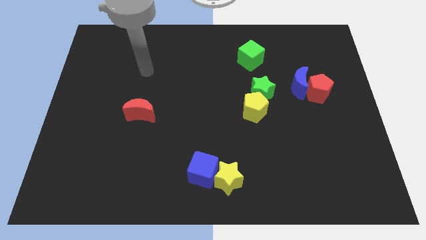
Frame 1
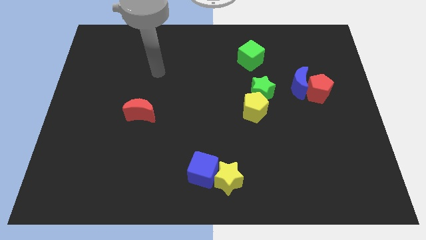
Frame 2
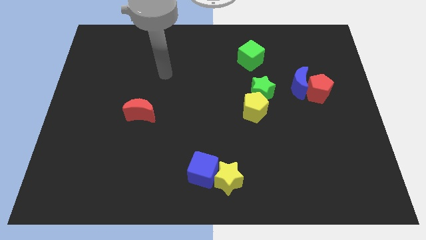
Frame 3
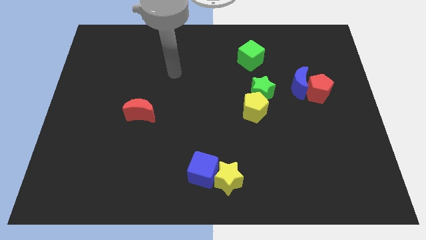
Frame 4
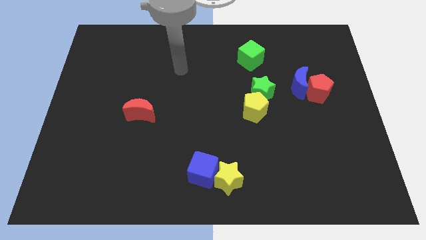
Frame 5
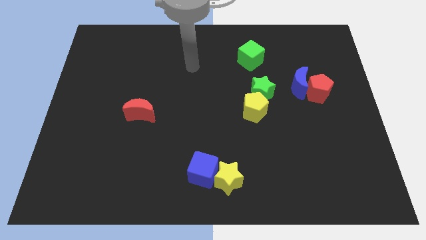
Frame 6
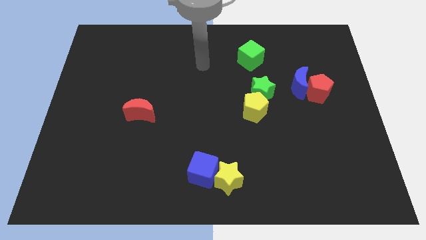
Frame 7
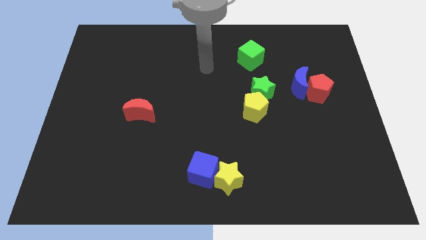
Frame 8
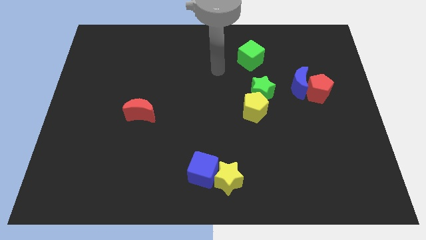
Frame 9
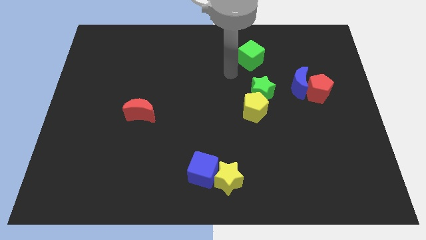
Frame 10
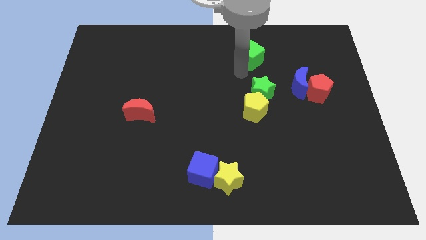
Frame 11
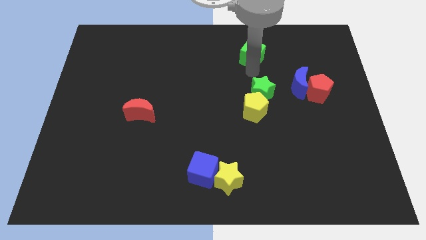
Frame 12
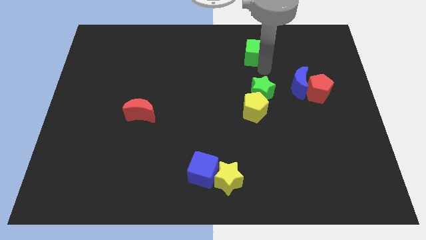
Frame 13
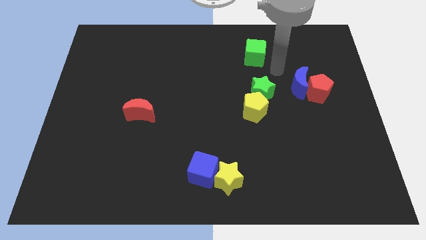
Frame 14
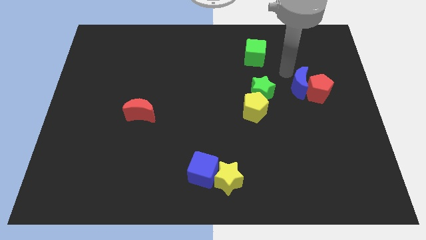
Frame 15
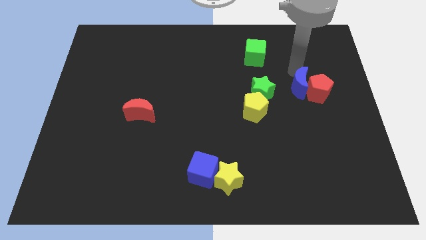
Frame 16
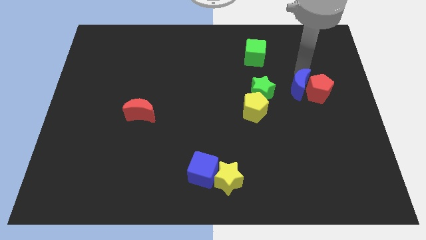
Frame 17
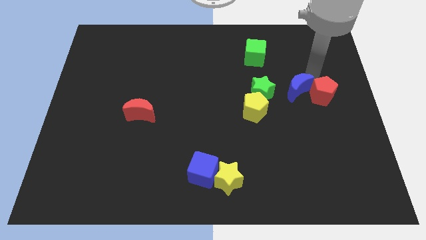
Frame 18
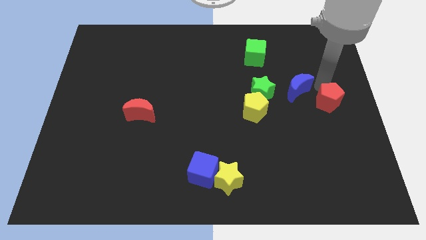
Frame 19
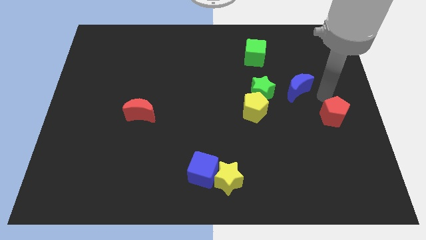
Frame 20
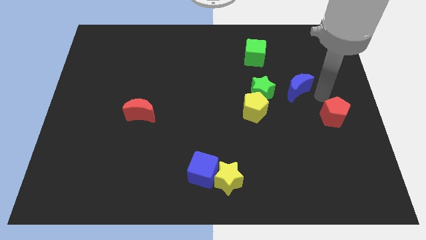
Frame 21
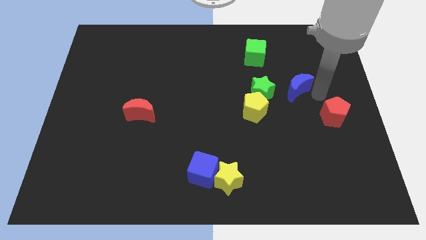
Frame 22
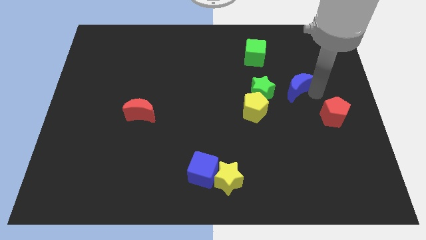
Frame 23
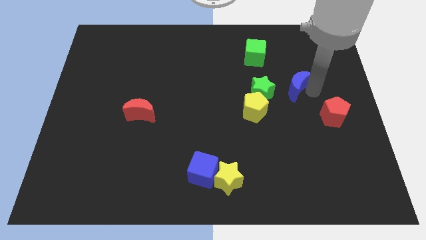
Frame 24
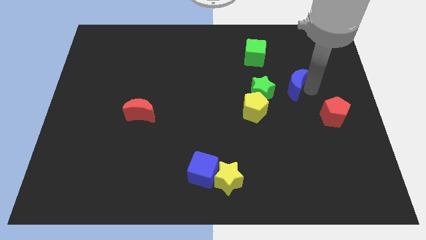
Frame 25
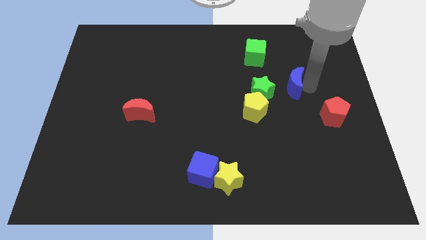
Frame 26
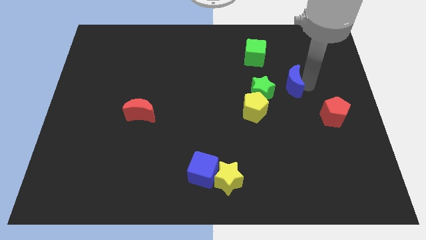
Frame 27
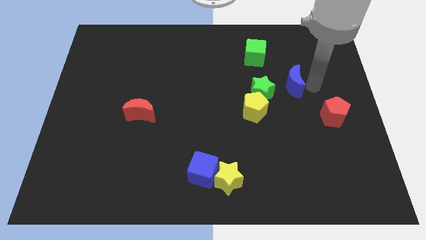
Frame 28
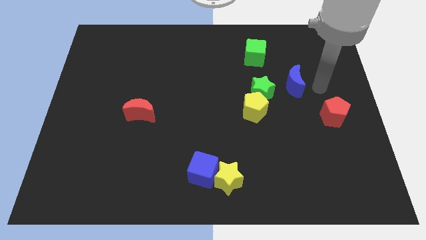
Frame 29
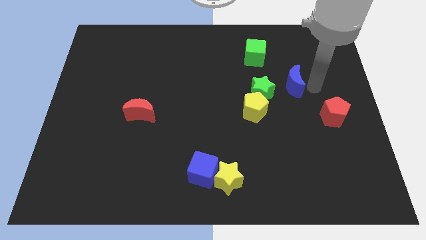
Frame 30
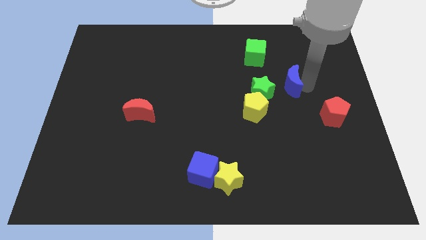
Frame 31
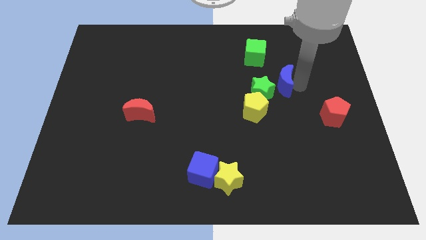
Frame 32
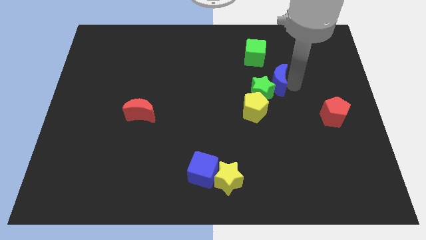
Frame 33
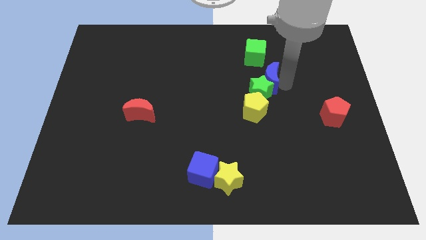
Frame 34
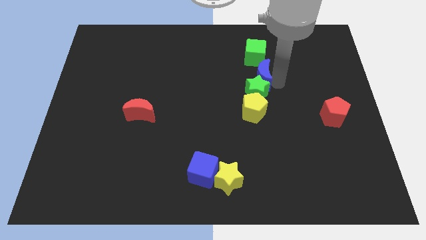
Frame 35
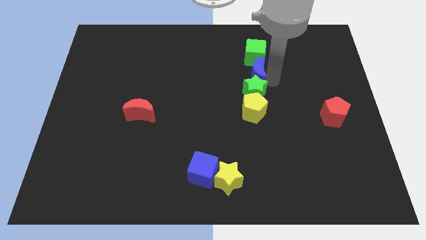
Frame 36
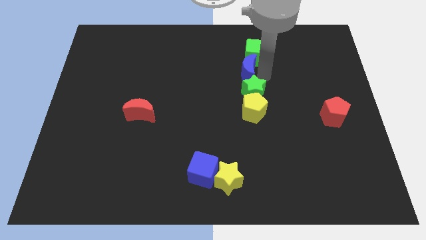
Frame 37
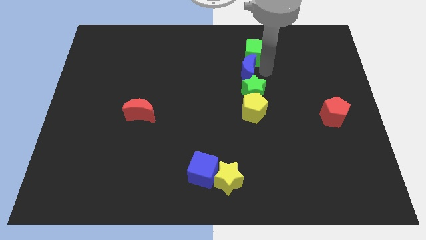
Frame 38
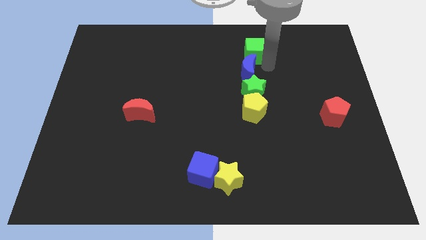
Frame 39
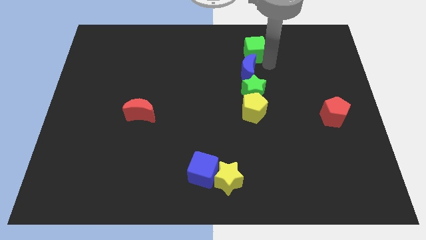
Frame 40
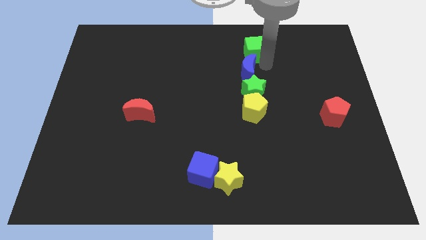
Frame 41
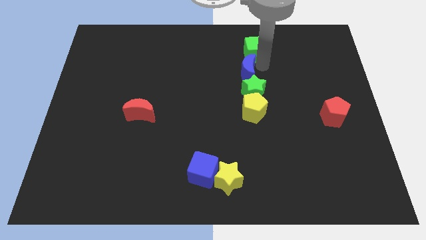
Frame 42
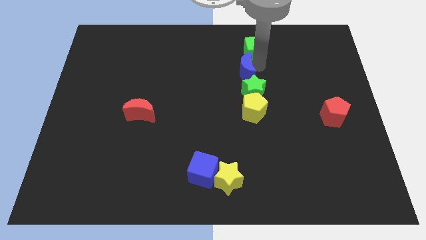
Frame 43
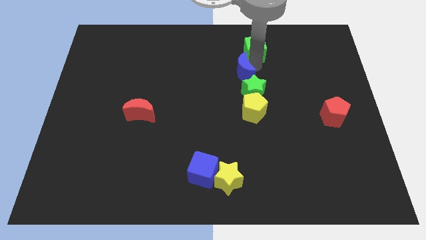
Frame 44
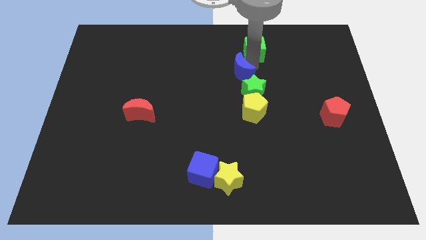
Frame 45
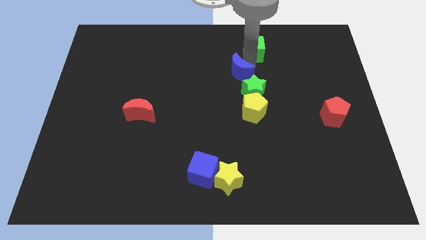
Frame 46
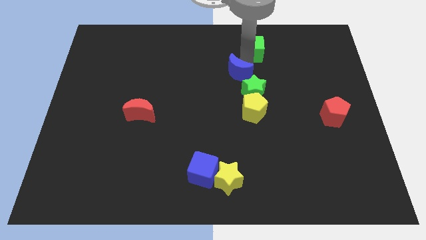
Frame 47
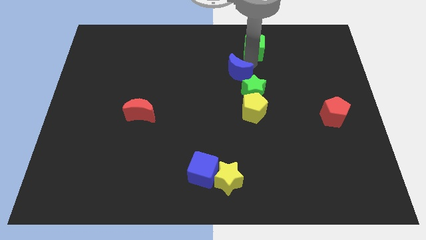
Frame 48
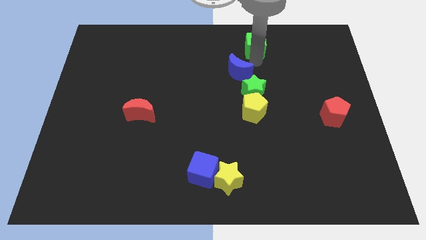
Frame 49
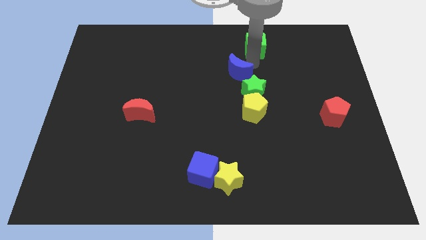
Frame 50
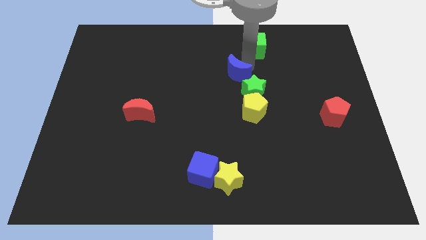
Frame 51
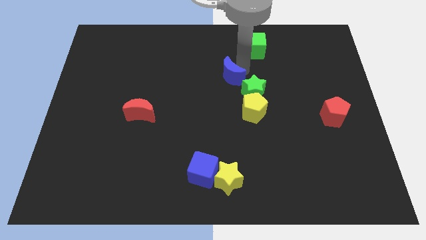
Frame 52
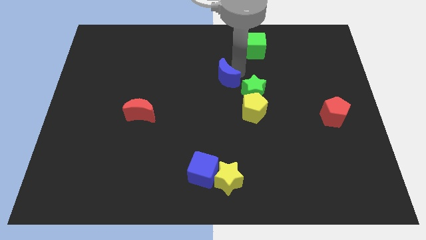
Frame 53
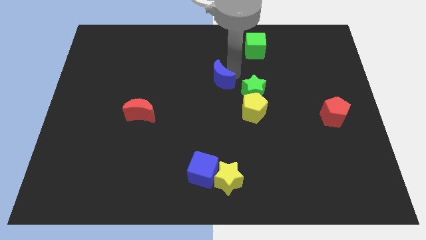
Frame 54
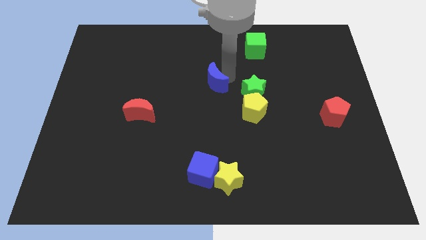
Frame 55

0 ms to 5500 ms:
slide the blue moon to the left

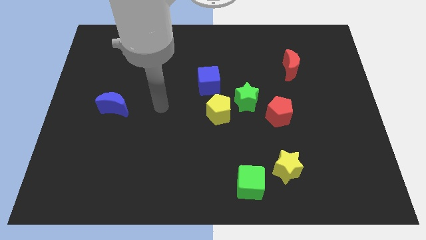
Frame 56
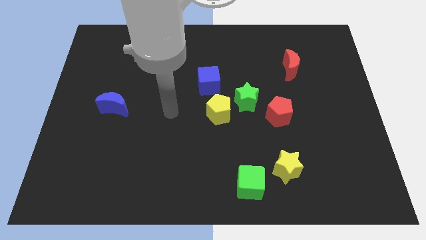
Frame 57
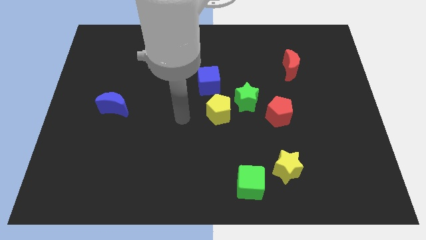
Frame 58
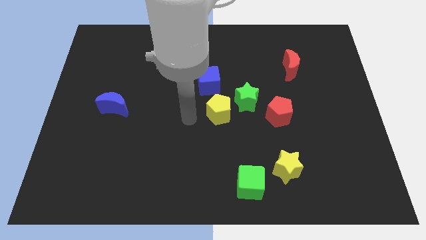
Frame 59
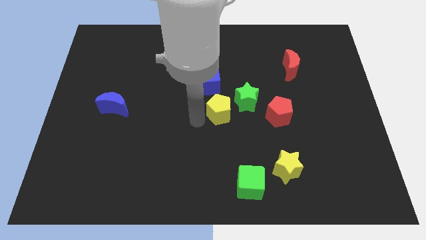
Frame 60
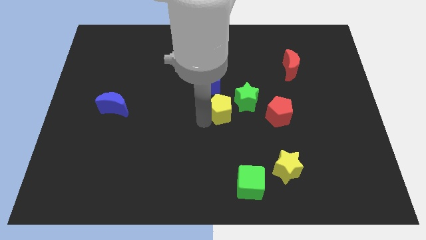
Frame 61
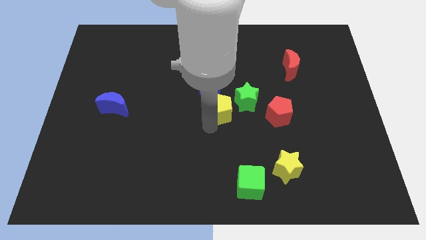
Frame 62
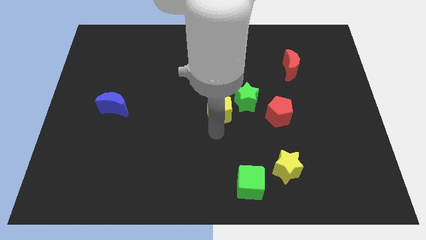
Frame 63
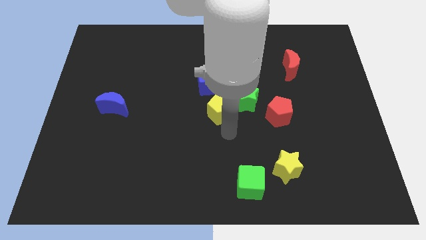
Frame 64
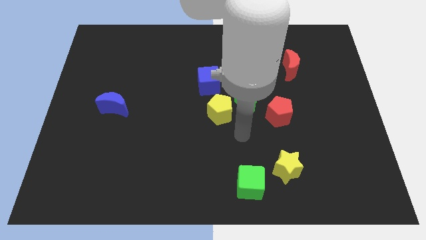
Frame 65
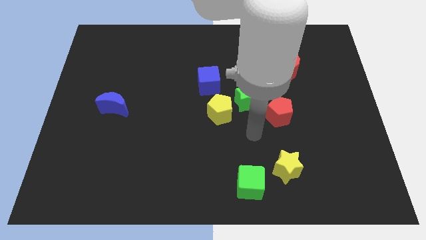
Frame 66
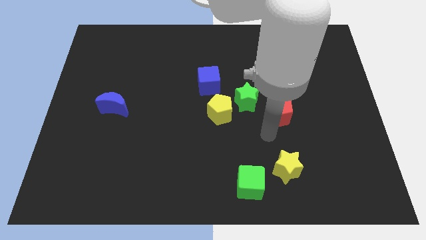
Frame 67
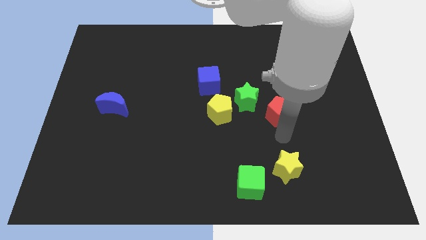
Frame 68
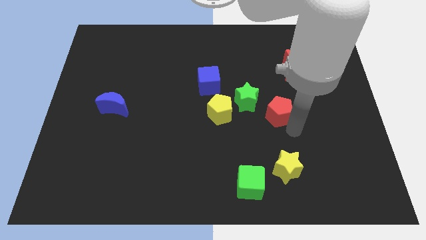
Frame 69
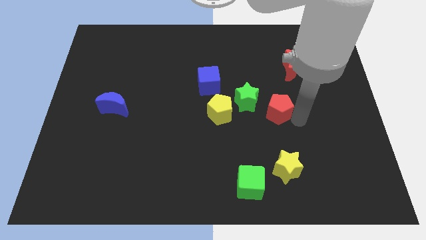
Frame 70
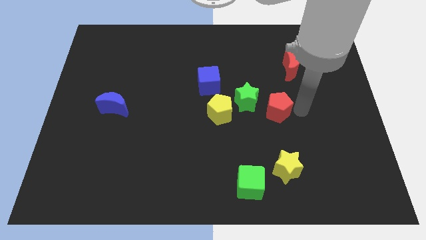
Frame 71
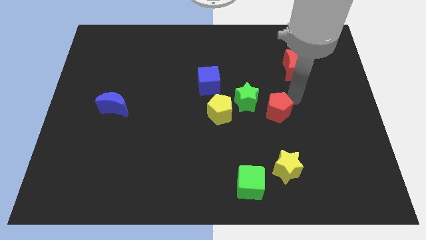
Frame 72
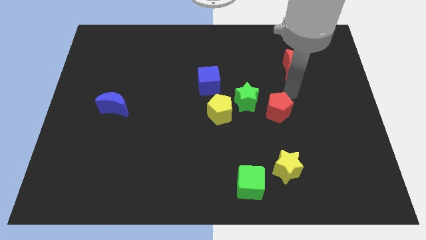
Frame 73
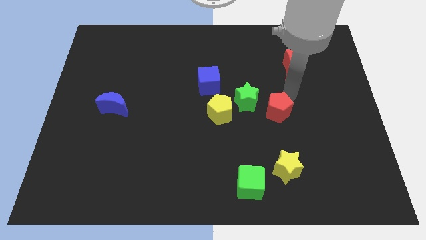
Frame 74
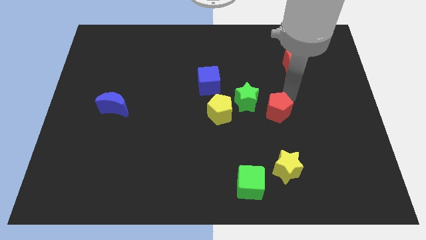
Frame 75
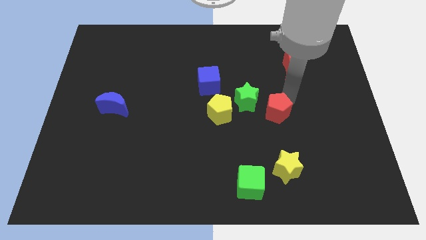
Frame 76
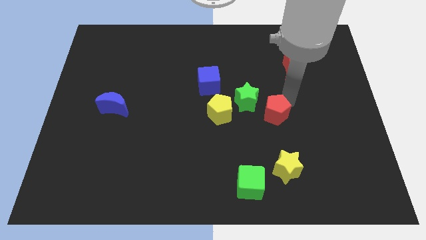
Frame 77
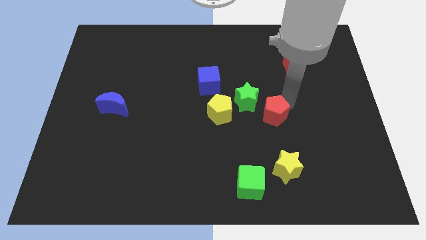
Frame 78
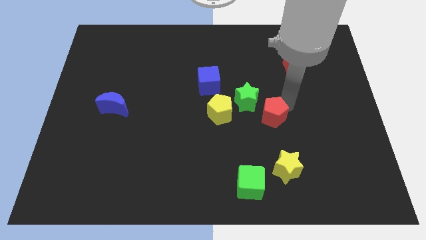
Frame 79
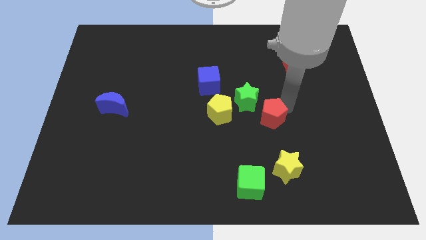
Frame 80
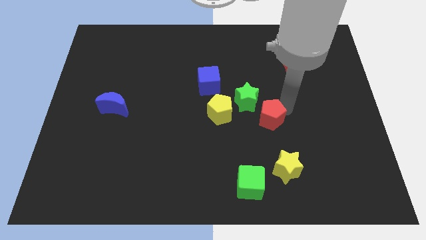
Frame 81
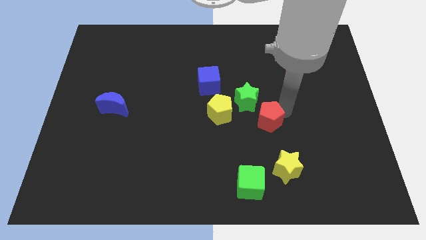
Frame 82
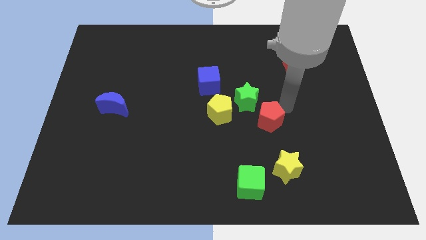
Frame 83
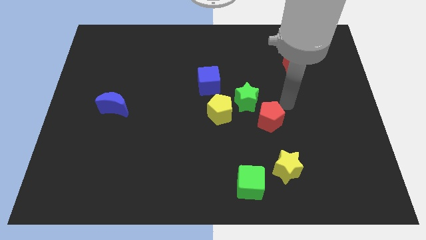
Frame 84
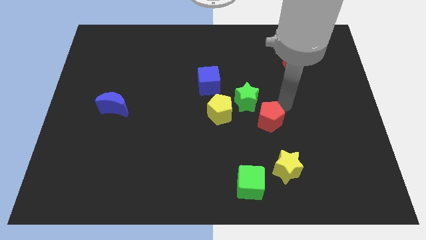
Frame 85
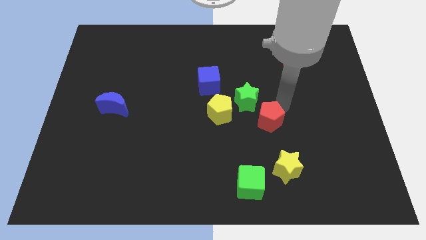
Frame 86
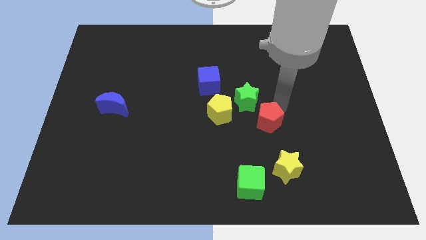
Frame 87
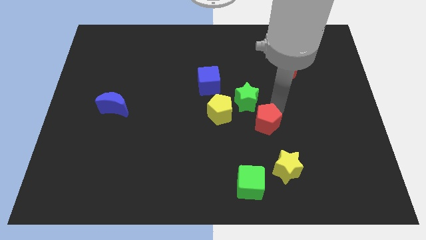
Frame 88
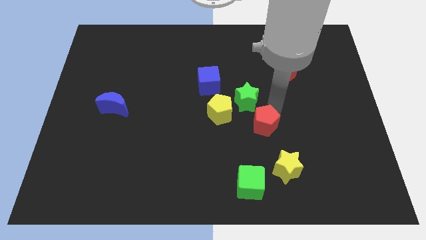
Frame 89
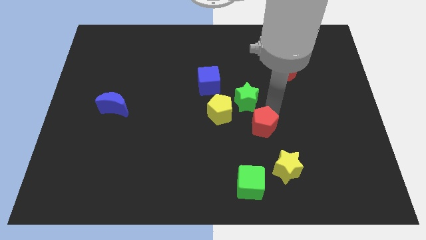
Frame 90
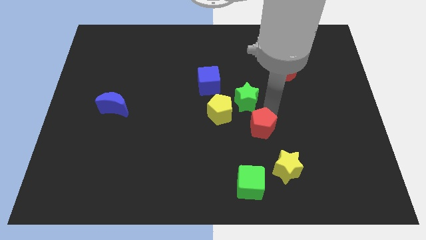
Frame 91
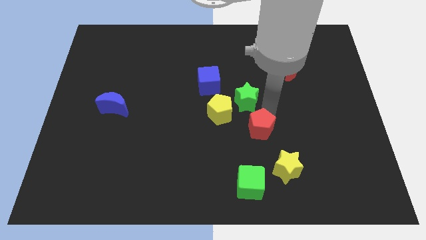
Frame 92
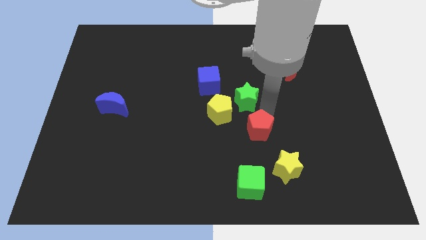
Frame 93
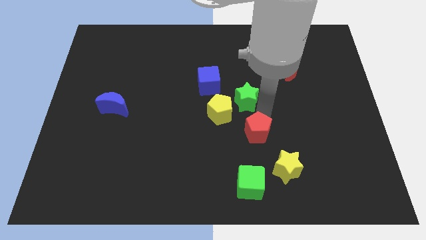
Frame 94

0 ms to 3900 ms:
slightly slide the red pentagon diagonally downwards and to the left
